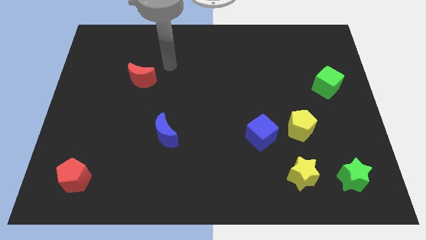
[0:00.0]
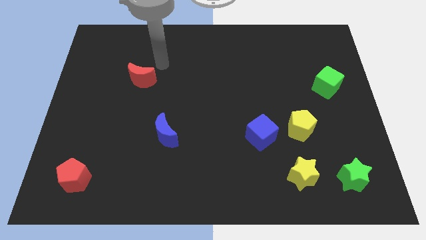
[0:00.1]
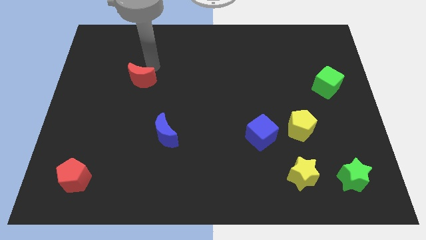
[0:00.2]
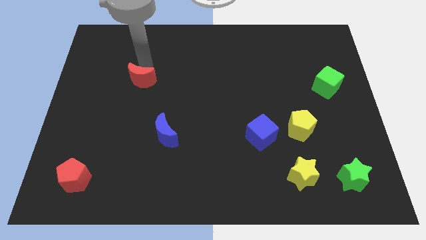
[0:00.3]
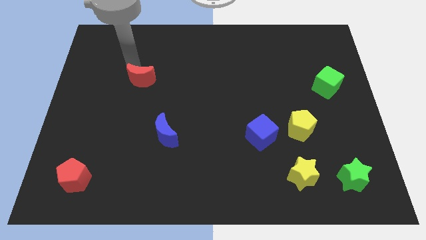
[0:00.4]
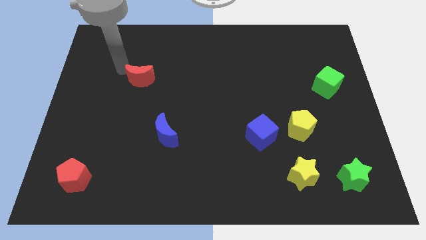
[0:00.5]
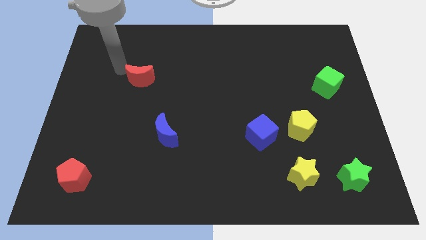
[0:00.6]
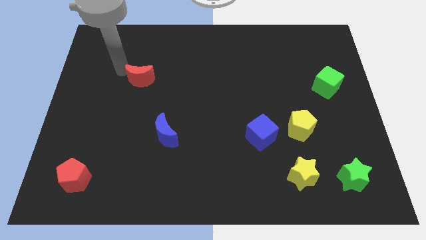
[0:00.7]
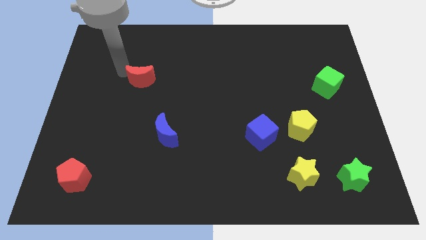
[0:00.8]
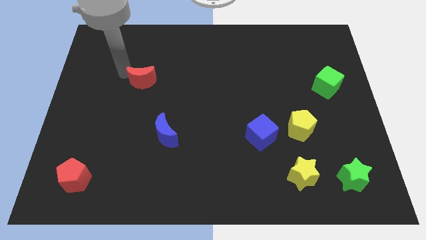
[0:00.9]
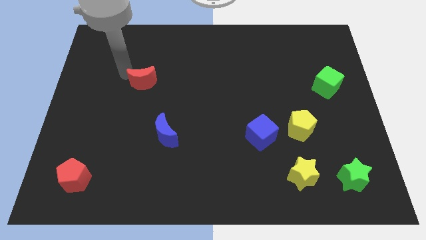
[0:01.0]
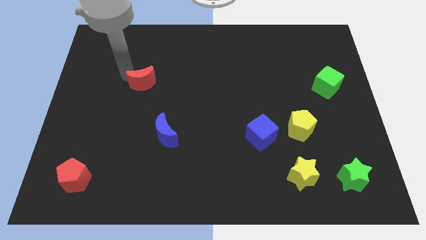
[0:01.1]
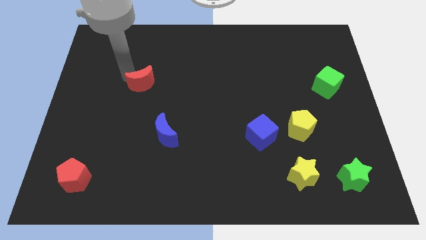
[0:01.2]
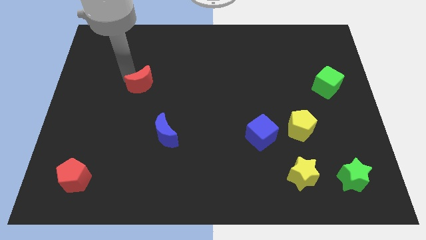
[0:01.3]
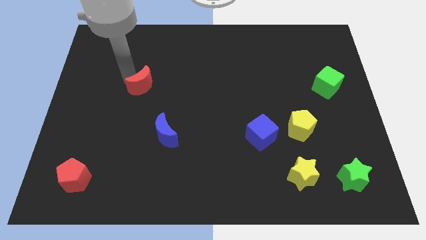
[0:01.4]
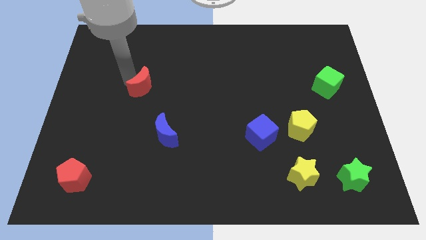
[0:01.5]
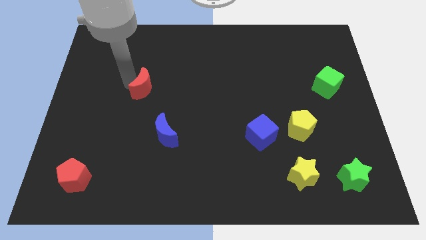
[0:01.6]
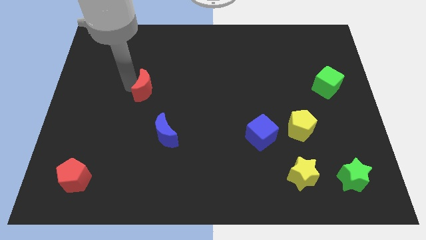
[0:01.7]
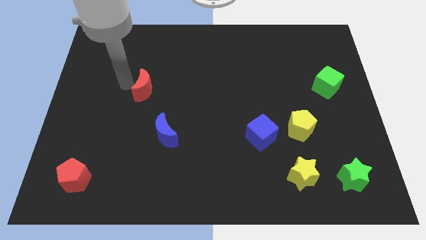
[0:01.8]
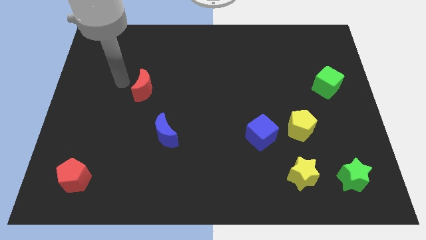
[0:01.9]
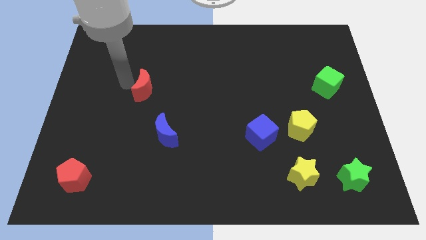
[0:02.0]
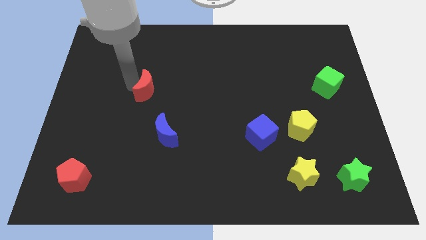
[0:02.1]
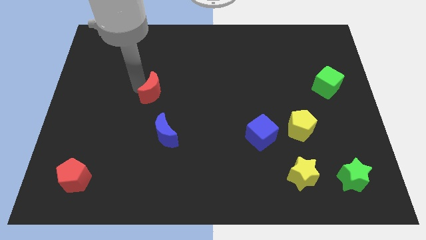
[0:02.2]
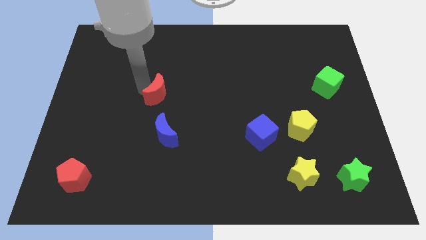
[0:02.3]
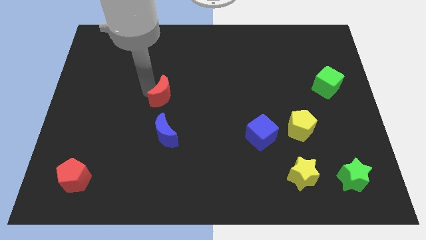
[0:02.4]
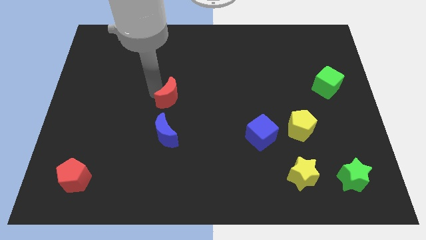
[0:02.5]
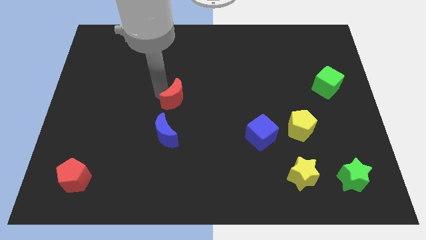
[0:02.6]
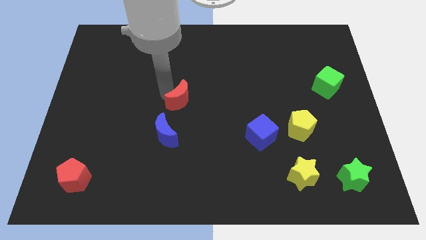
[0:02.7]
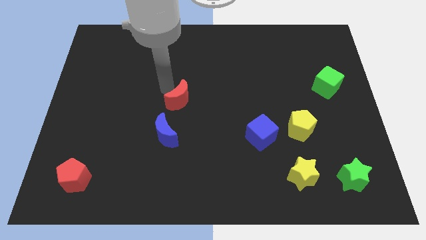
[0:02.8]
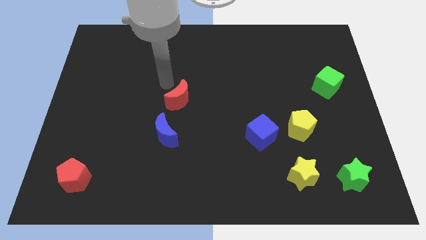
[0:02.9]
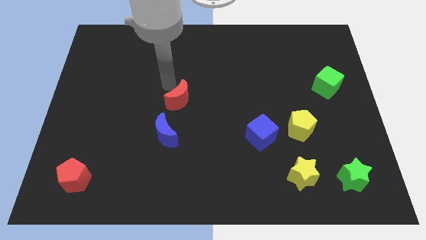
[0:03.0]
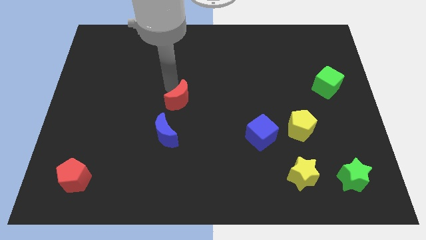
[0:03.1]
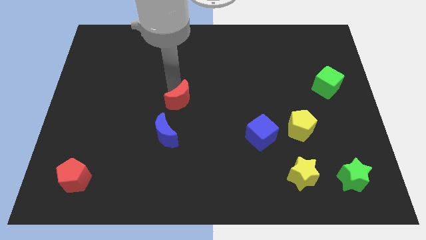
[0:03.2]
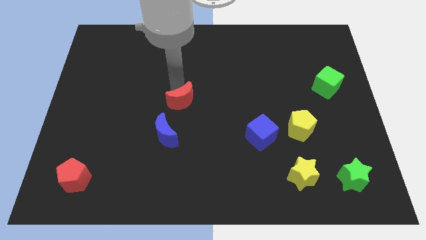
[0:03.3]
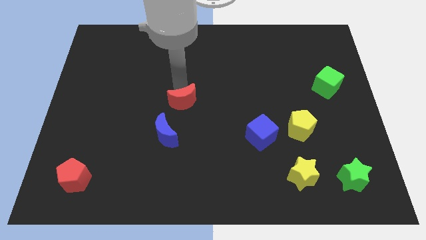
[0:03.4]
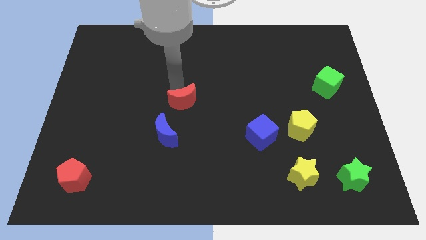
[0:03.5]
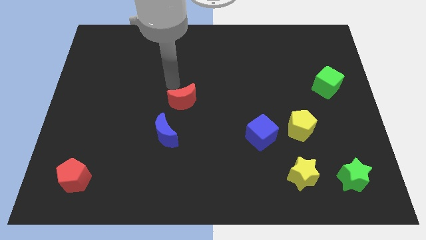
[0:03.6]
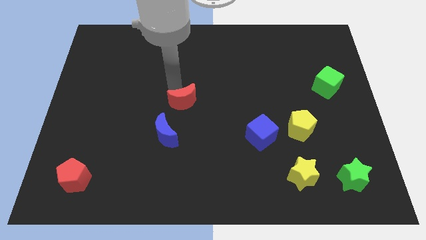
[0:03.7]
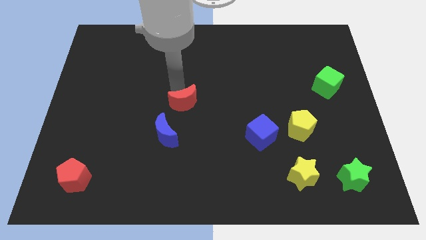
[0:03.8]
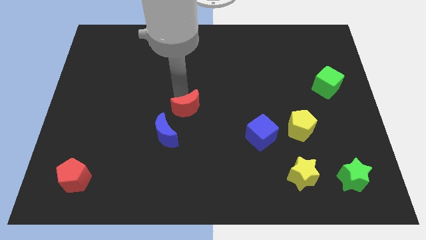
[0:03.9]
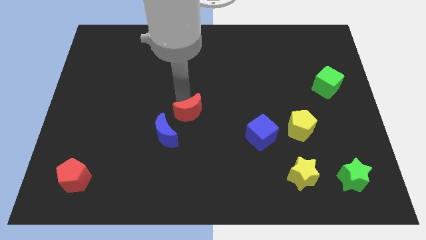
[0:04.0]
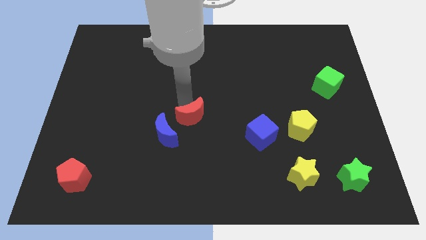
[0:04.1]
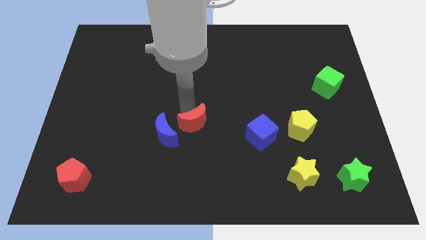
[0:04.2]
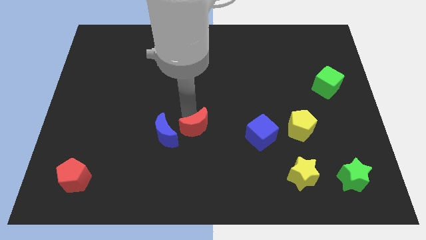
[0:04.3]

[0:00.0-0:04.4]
slide the red moon downwards and right diagonally

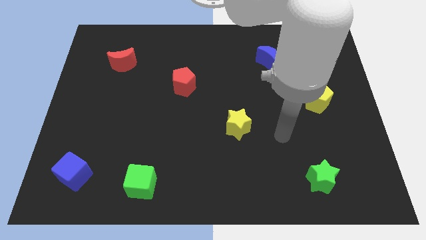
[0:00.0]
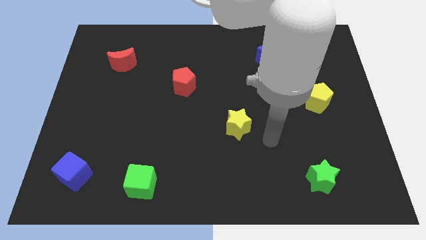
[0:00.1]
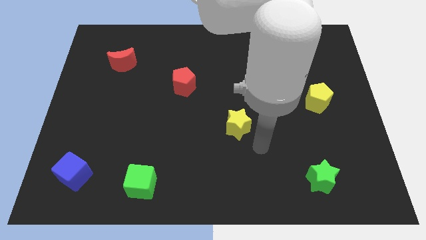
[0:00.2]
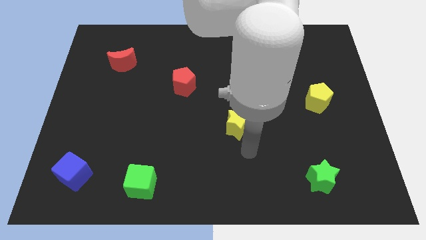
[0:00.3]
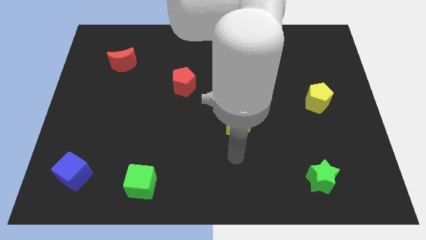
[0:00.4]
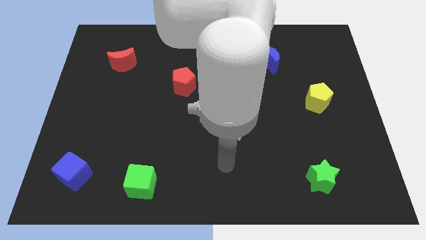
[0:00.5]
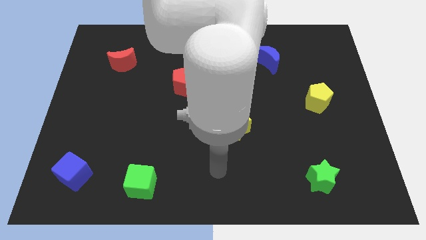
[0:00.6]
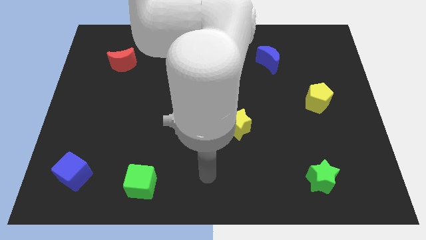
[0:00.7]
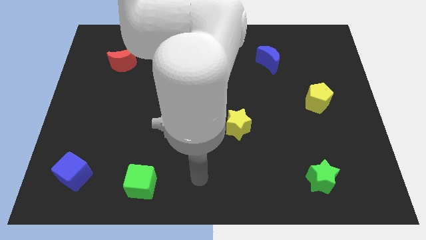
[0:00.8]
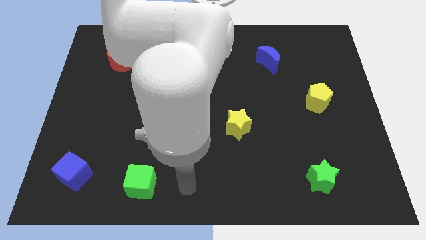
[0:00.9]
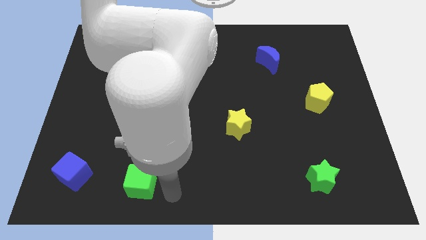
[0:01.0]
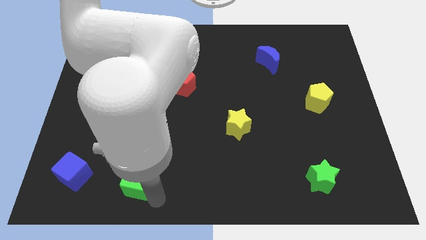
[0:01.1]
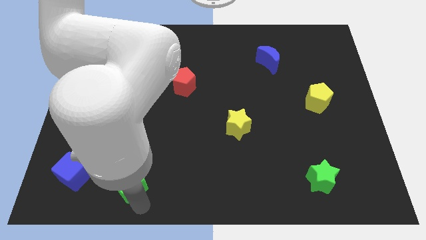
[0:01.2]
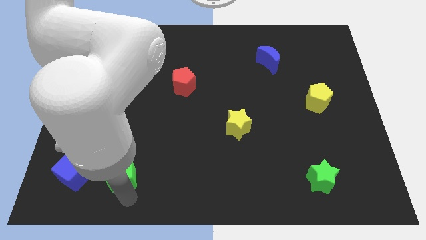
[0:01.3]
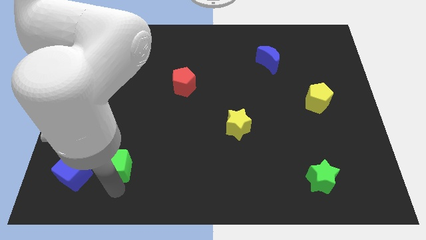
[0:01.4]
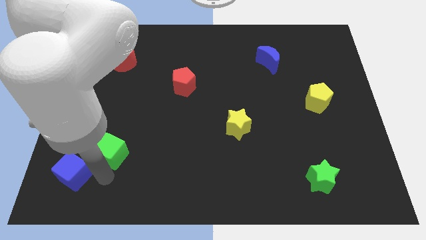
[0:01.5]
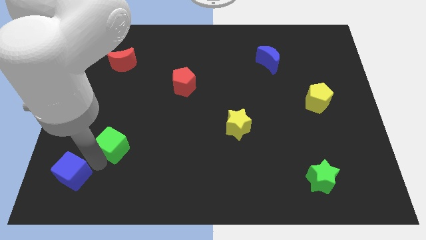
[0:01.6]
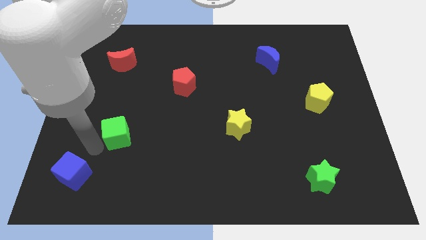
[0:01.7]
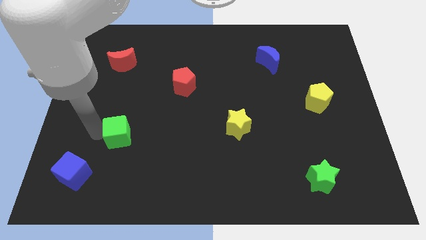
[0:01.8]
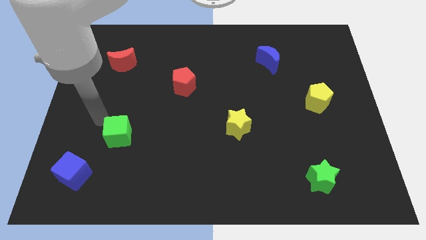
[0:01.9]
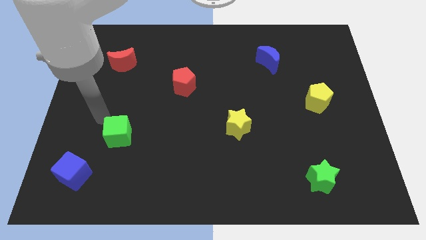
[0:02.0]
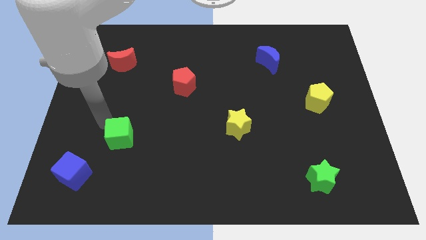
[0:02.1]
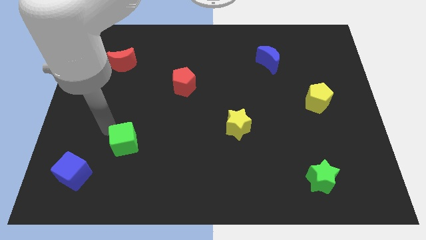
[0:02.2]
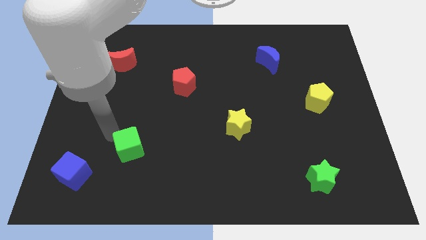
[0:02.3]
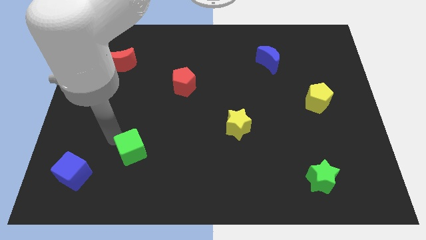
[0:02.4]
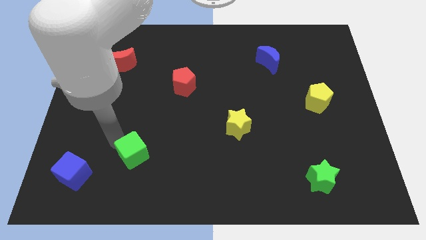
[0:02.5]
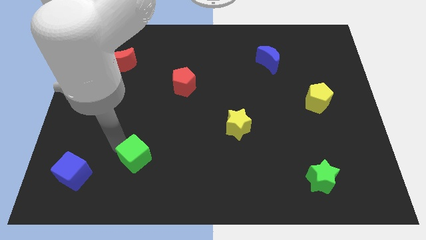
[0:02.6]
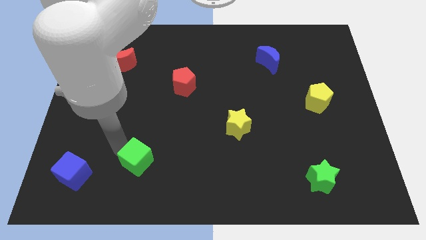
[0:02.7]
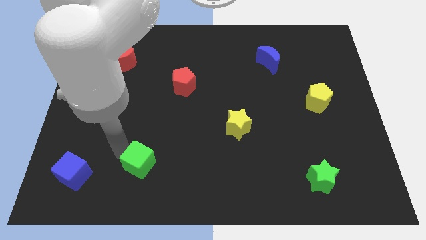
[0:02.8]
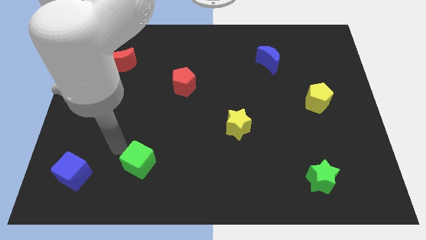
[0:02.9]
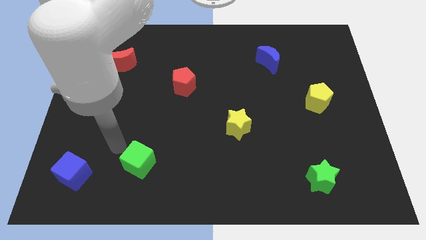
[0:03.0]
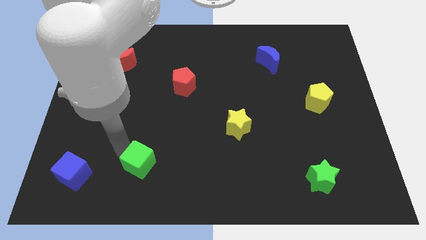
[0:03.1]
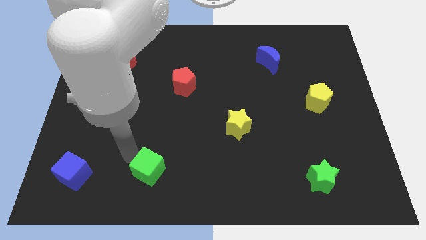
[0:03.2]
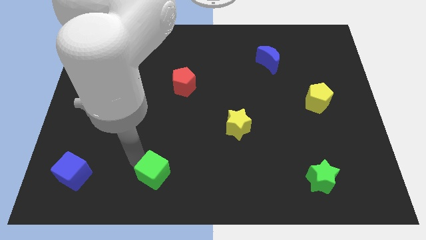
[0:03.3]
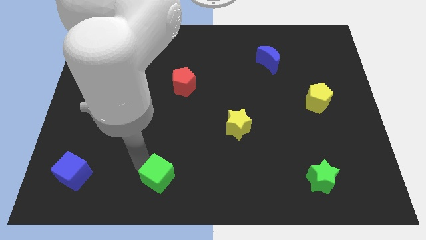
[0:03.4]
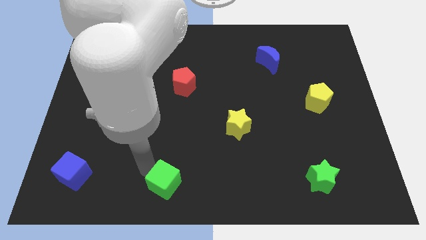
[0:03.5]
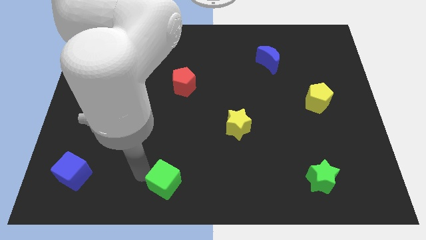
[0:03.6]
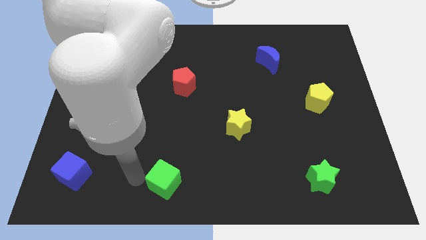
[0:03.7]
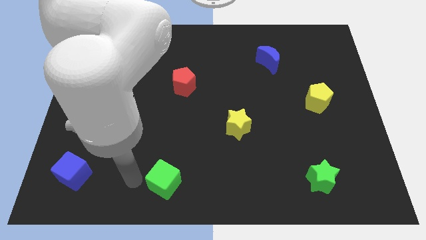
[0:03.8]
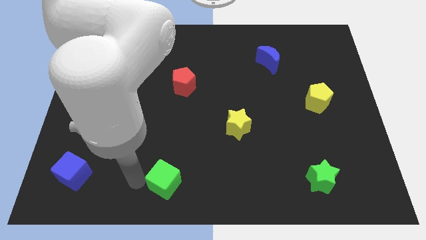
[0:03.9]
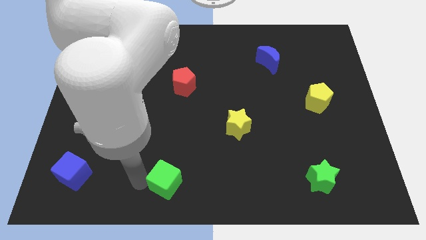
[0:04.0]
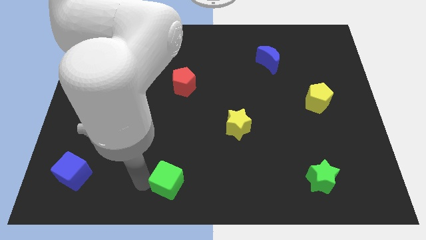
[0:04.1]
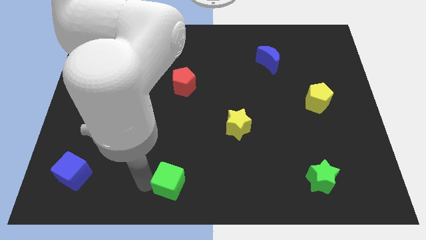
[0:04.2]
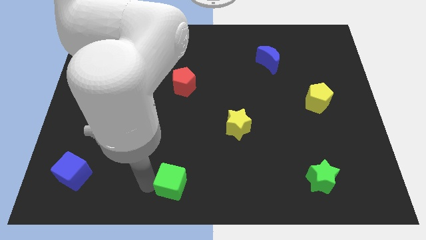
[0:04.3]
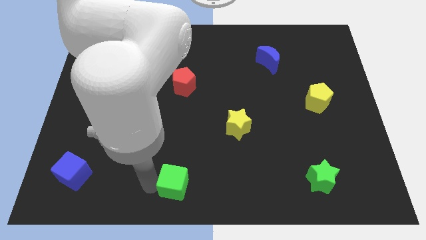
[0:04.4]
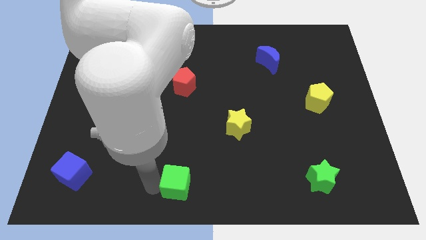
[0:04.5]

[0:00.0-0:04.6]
slightly slide the green cube to the right
